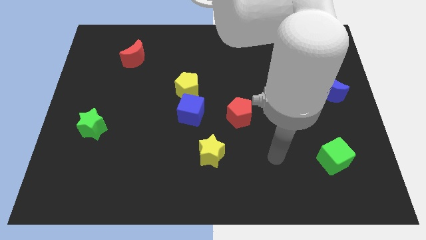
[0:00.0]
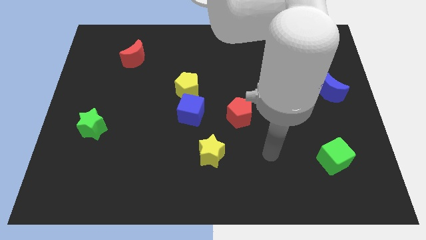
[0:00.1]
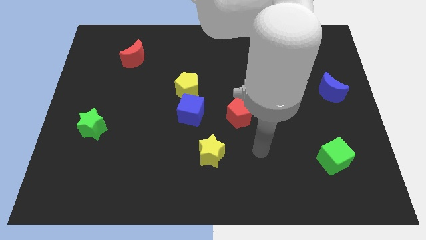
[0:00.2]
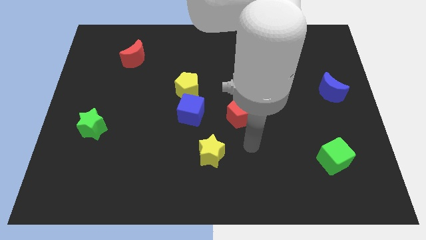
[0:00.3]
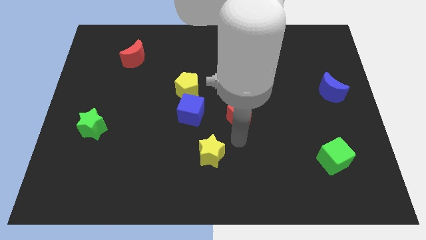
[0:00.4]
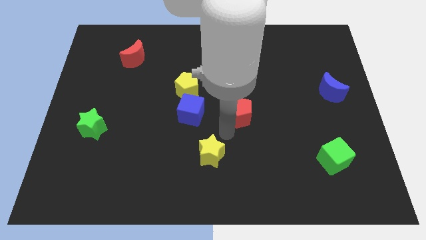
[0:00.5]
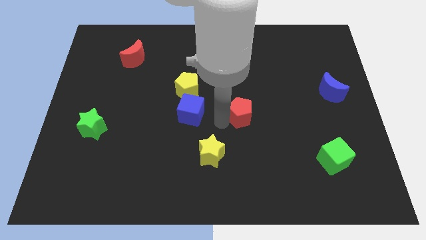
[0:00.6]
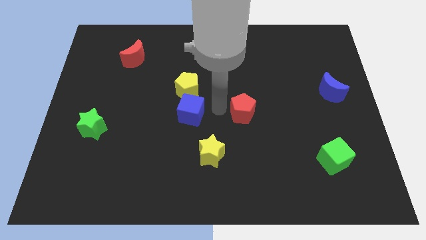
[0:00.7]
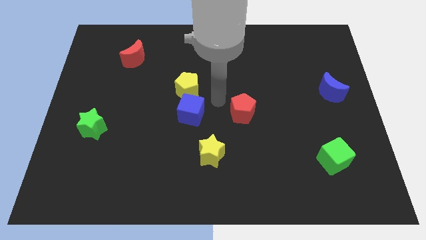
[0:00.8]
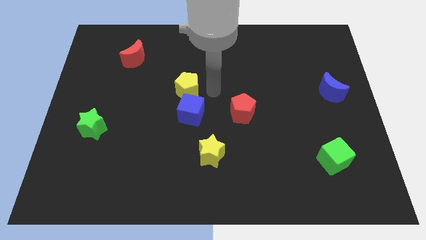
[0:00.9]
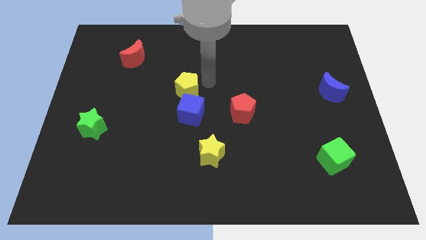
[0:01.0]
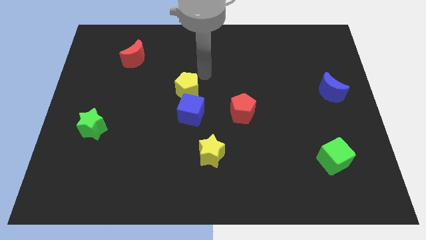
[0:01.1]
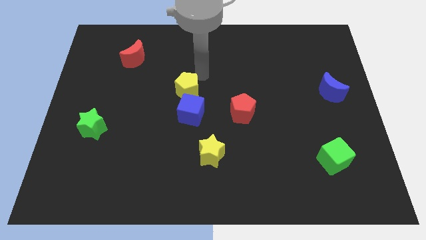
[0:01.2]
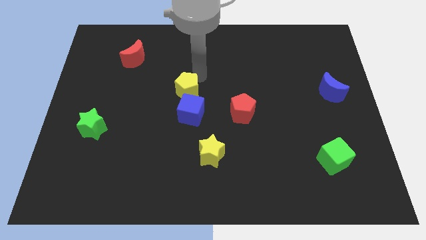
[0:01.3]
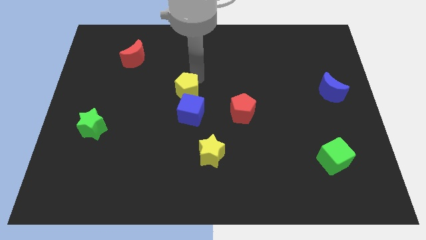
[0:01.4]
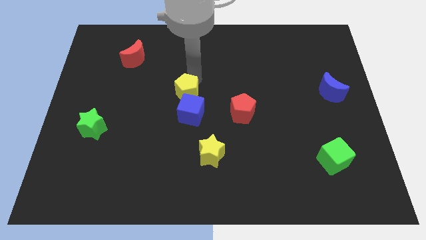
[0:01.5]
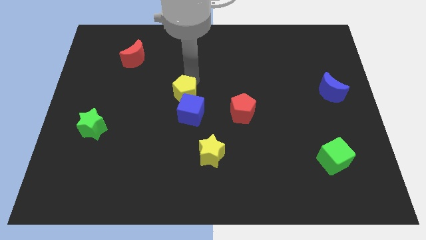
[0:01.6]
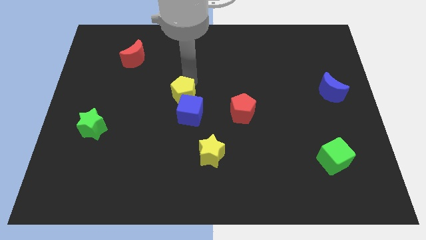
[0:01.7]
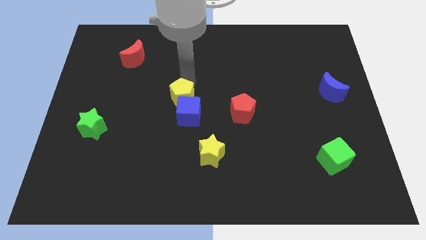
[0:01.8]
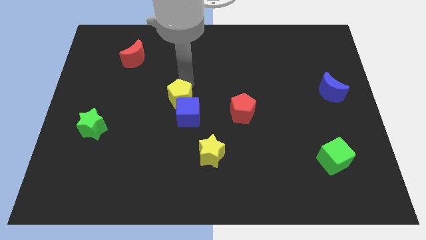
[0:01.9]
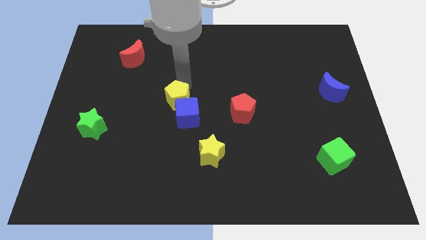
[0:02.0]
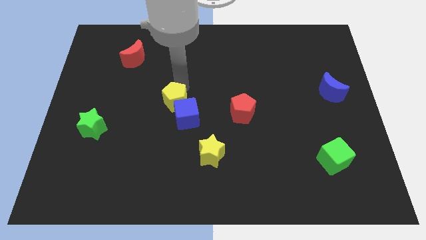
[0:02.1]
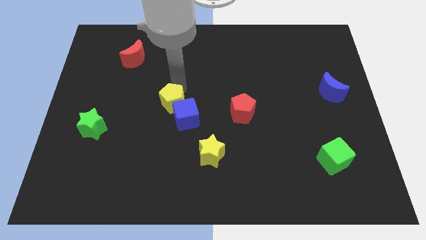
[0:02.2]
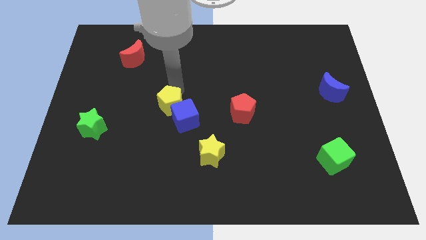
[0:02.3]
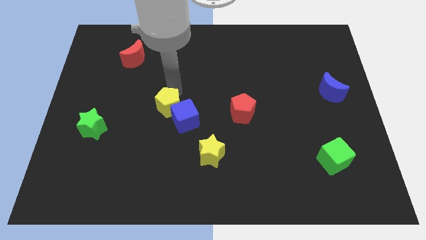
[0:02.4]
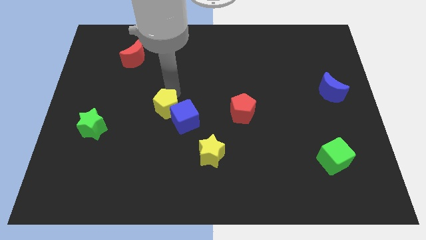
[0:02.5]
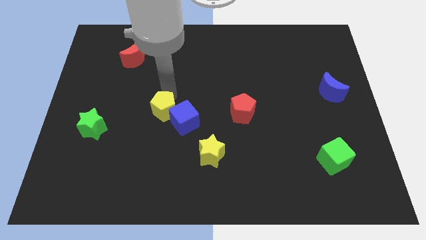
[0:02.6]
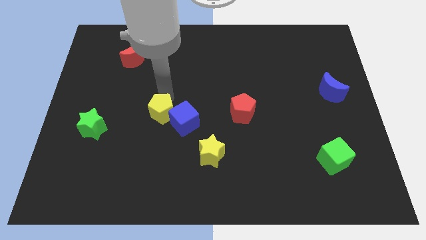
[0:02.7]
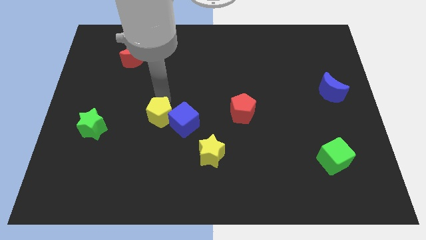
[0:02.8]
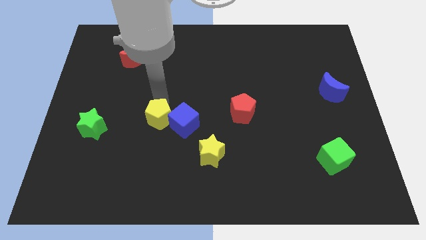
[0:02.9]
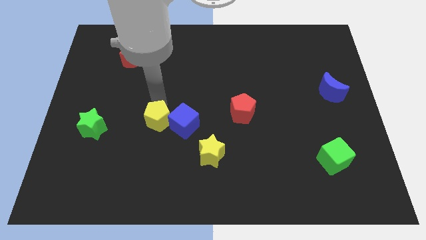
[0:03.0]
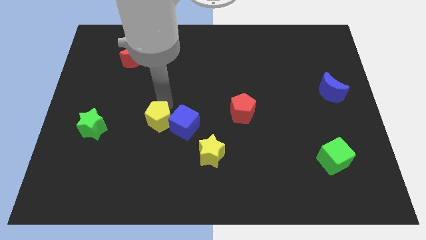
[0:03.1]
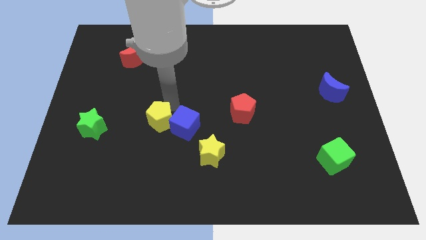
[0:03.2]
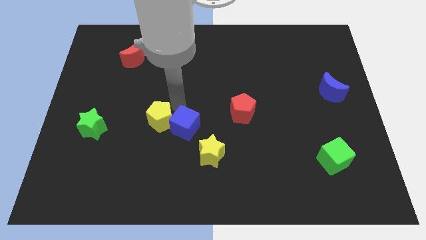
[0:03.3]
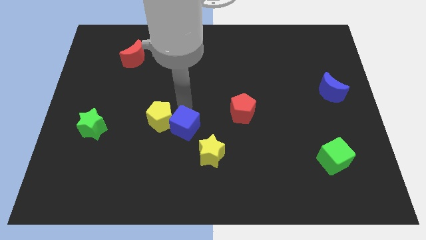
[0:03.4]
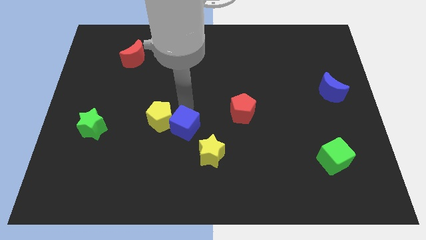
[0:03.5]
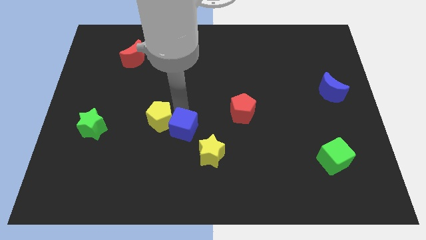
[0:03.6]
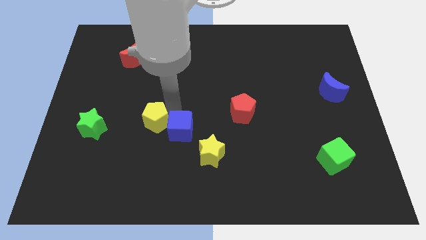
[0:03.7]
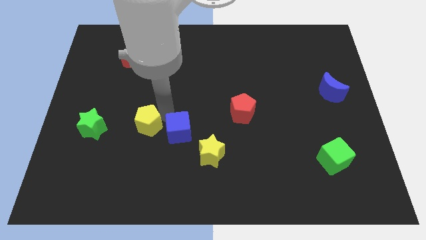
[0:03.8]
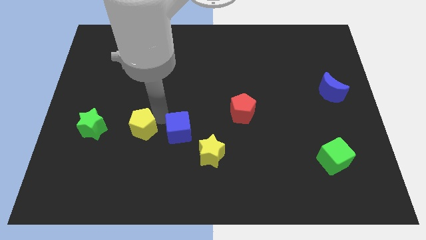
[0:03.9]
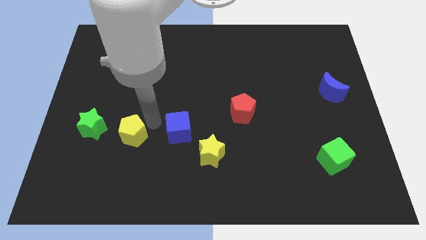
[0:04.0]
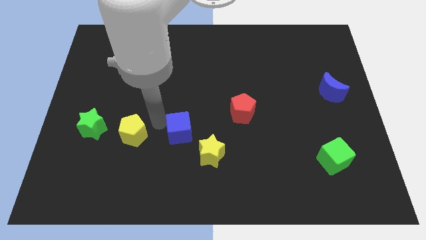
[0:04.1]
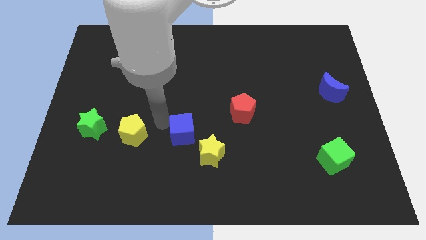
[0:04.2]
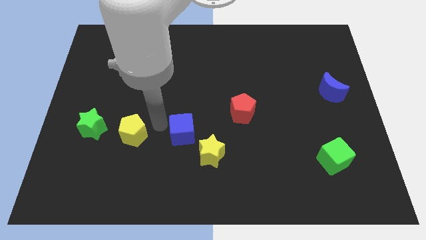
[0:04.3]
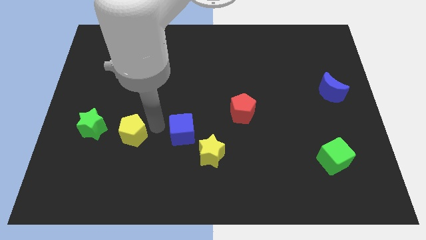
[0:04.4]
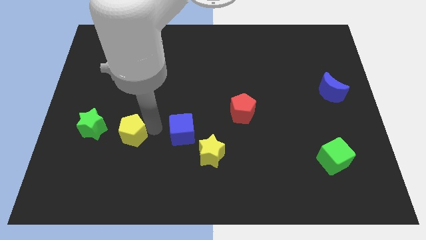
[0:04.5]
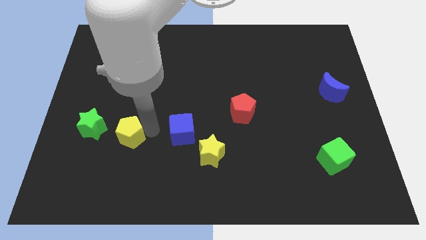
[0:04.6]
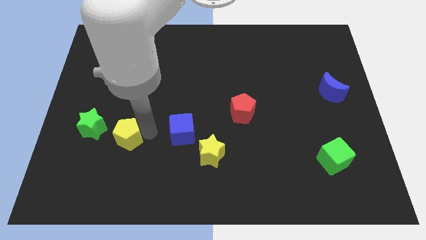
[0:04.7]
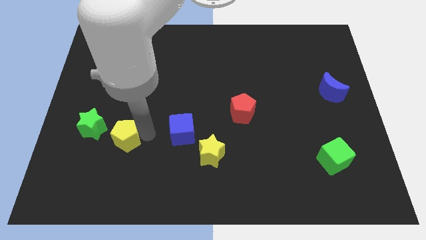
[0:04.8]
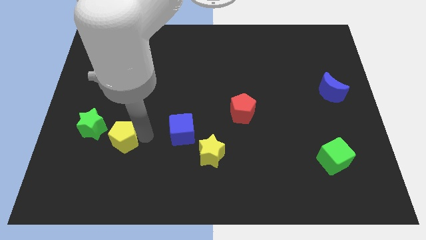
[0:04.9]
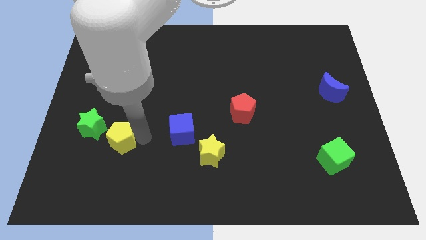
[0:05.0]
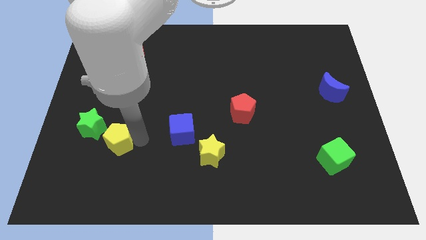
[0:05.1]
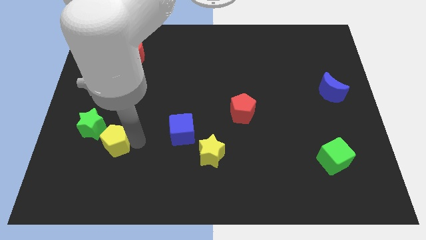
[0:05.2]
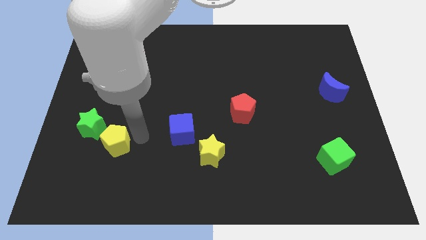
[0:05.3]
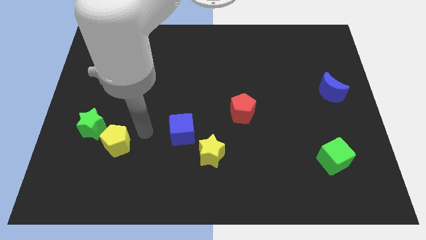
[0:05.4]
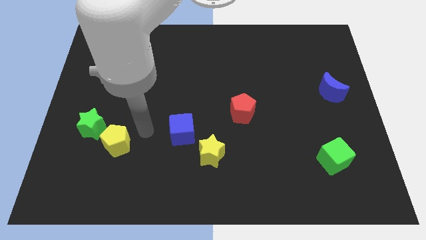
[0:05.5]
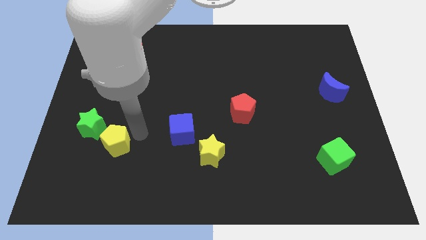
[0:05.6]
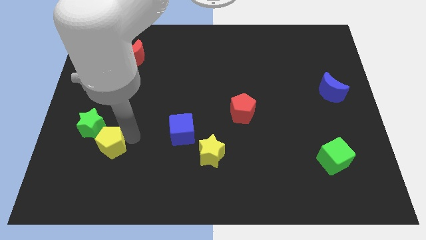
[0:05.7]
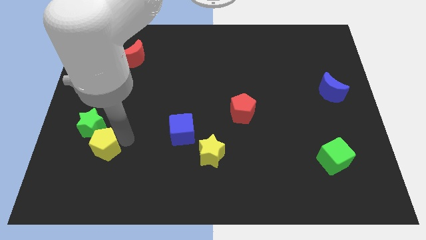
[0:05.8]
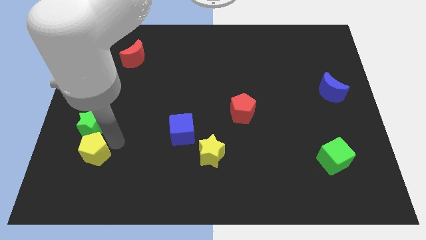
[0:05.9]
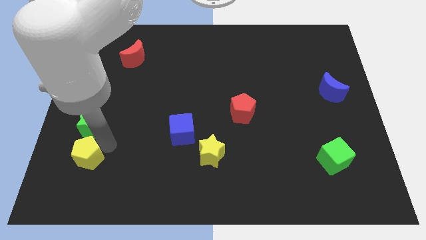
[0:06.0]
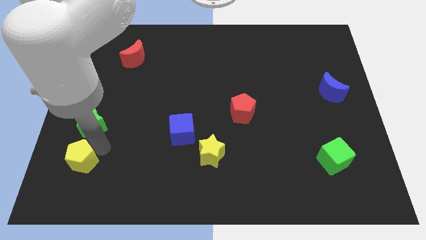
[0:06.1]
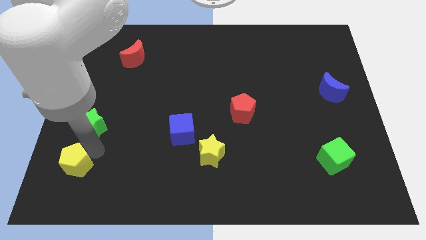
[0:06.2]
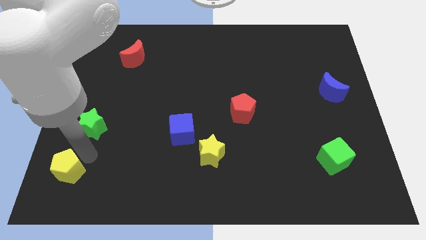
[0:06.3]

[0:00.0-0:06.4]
push the yellow pentagon to the bottom left of the board

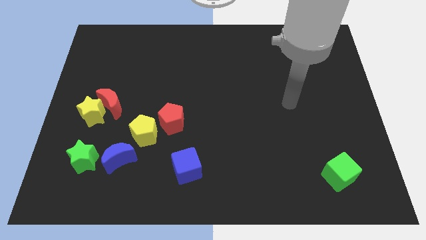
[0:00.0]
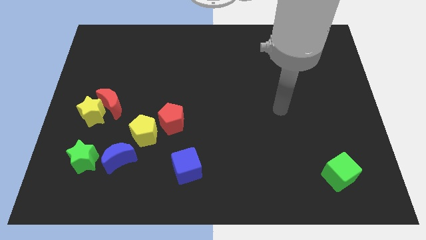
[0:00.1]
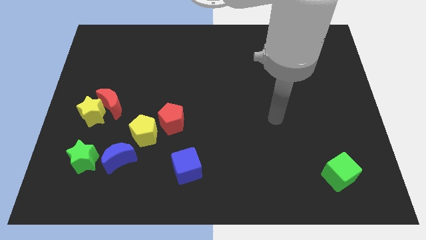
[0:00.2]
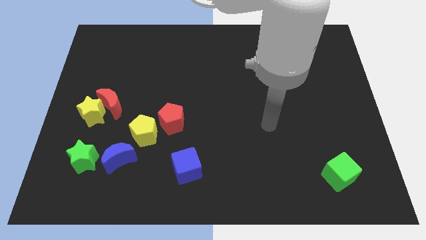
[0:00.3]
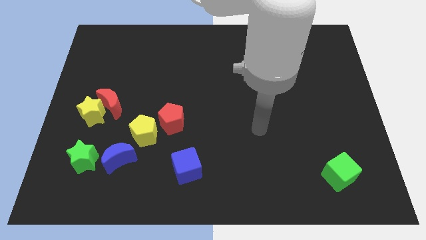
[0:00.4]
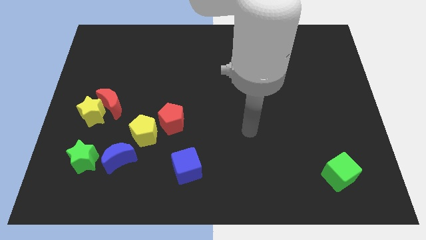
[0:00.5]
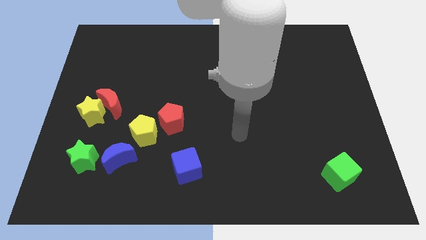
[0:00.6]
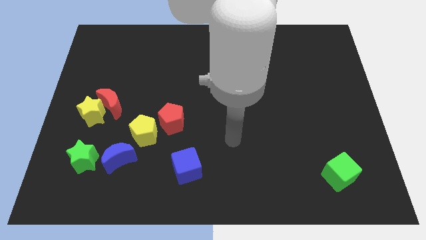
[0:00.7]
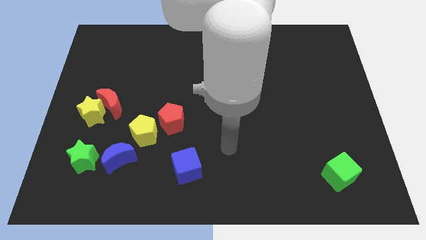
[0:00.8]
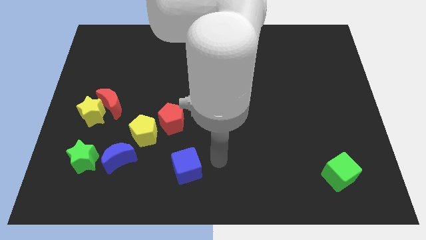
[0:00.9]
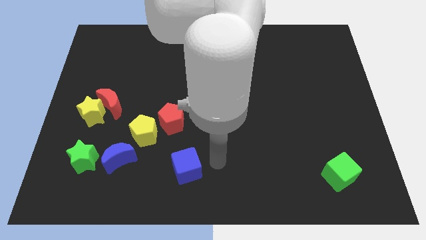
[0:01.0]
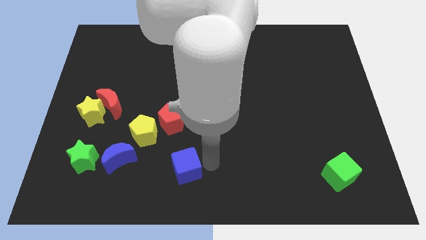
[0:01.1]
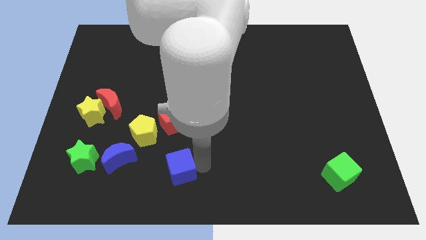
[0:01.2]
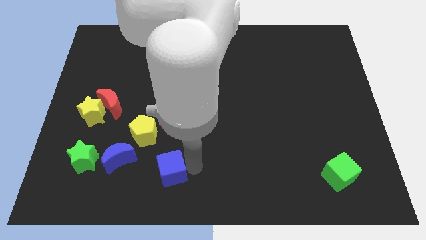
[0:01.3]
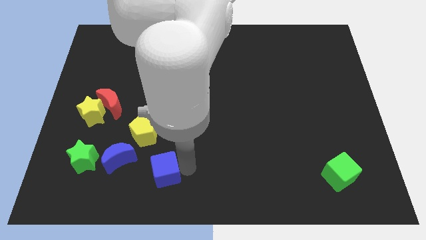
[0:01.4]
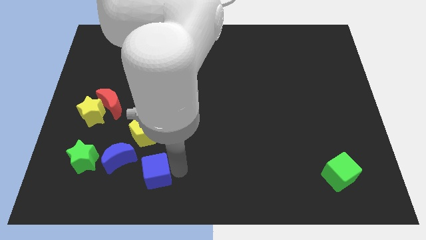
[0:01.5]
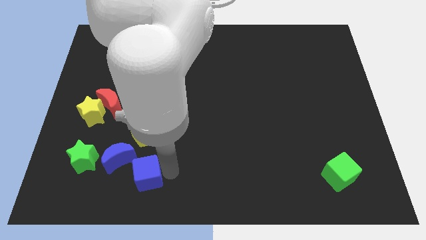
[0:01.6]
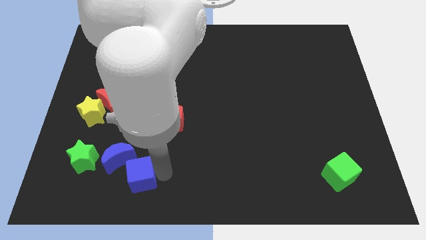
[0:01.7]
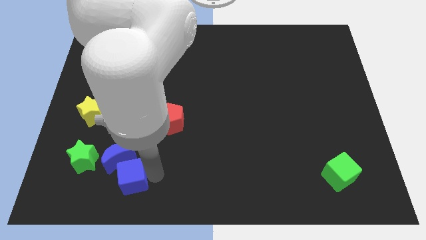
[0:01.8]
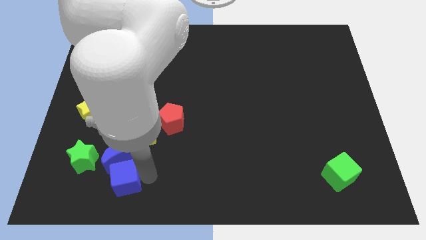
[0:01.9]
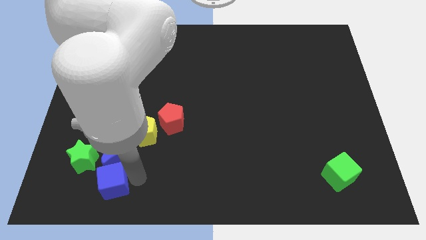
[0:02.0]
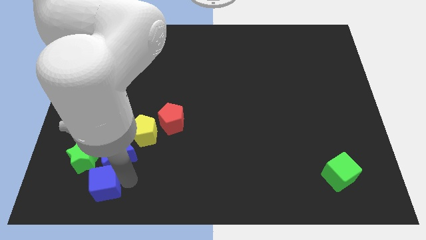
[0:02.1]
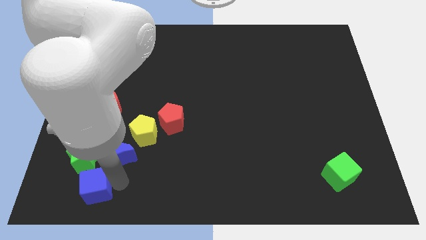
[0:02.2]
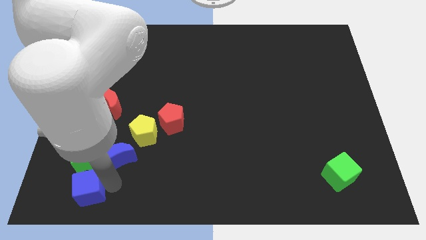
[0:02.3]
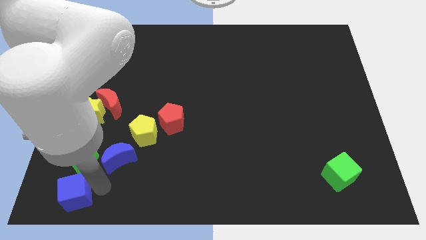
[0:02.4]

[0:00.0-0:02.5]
put the blue cube to the bottom left corner
